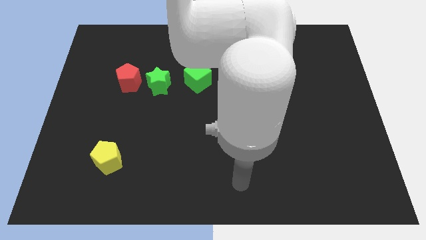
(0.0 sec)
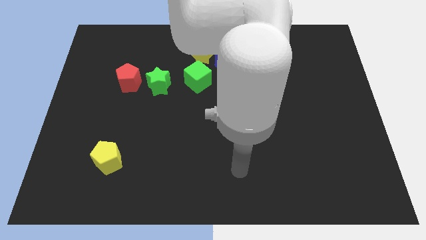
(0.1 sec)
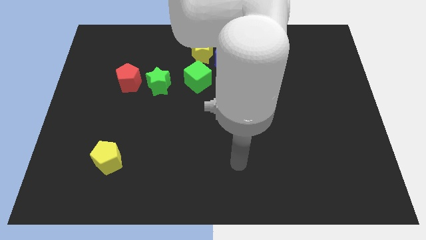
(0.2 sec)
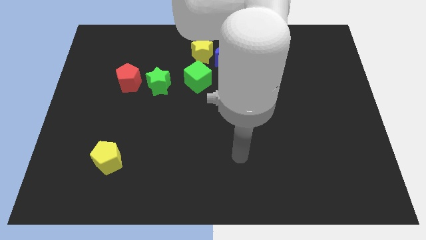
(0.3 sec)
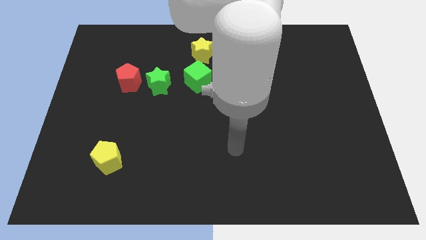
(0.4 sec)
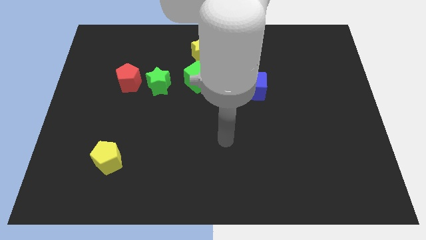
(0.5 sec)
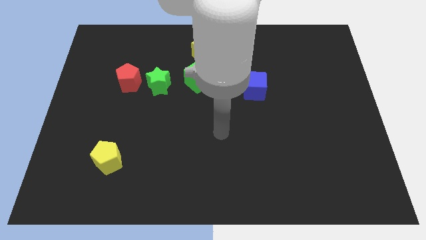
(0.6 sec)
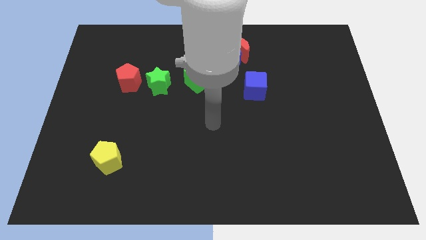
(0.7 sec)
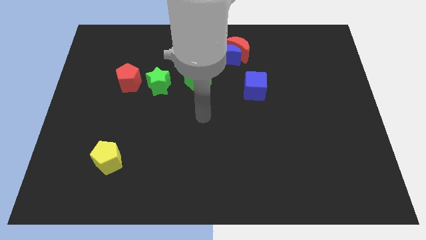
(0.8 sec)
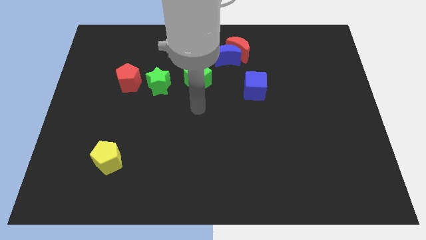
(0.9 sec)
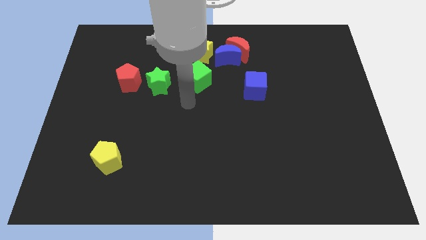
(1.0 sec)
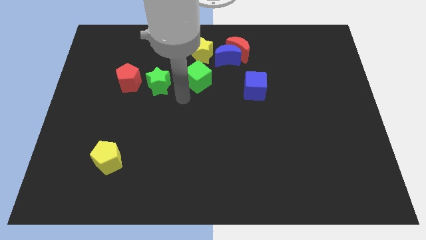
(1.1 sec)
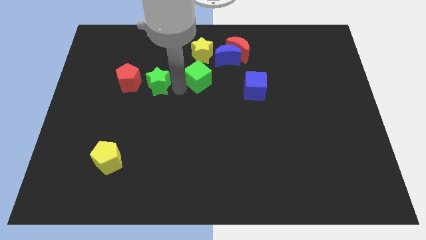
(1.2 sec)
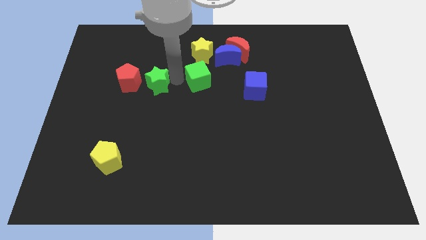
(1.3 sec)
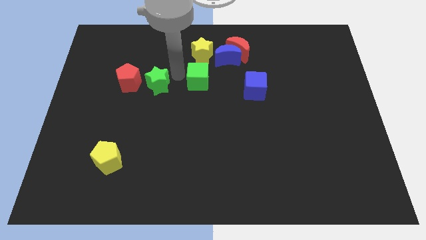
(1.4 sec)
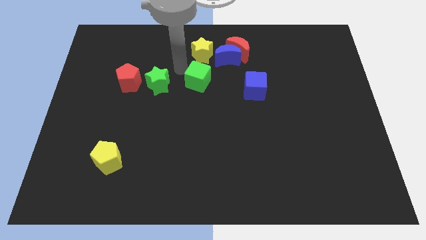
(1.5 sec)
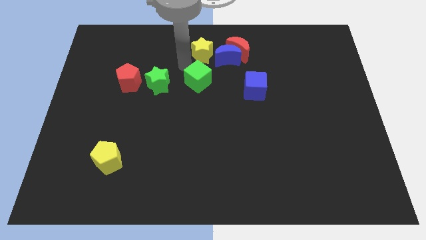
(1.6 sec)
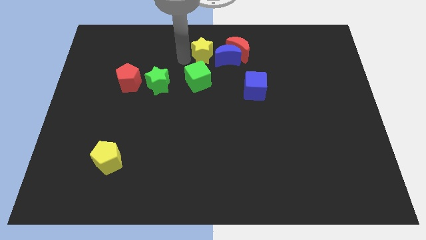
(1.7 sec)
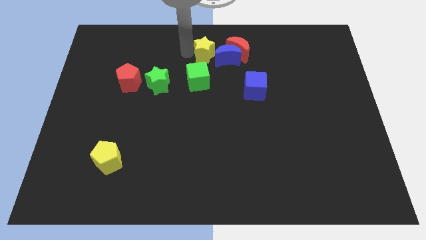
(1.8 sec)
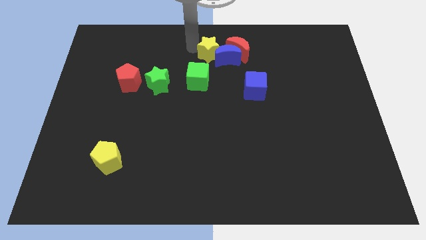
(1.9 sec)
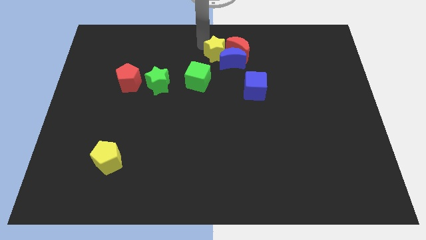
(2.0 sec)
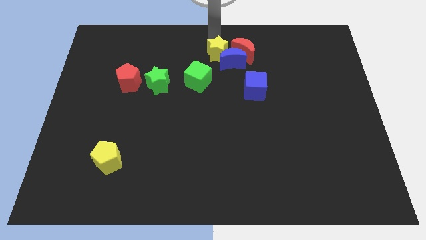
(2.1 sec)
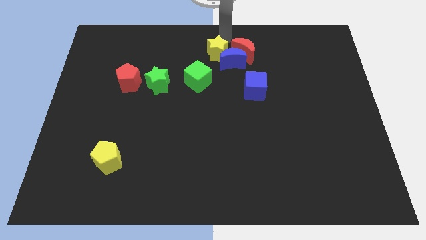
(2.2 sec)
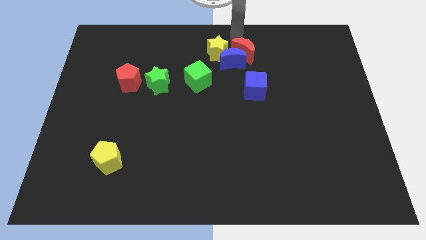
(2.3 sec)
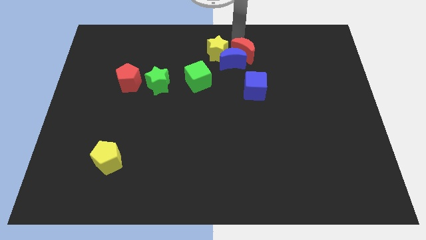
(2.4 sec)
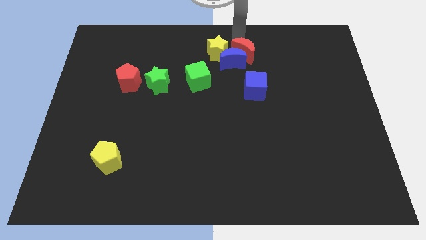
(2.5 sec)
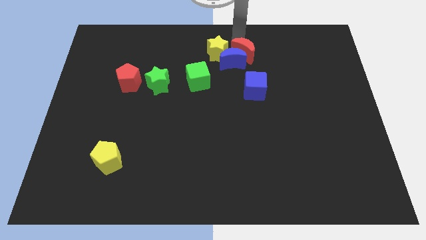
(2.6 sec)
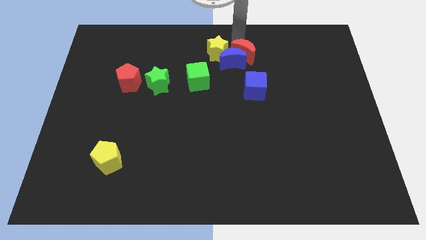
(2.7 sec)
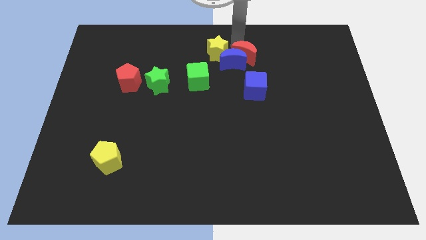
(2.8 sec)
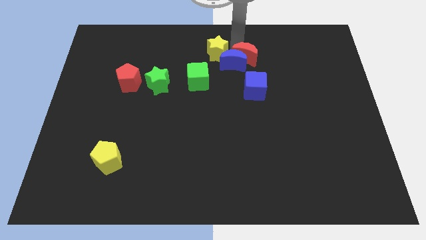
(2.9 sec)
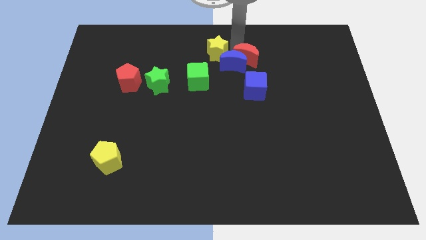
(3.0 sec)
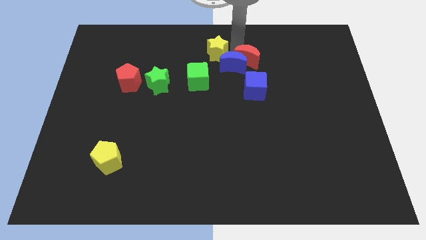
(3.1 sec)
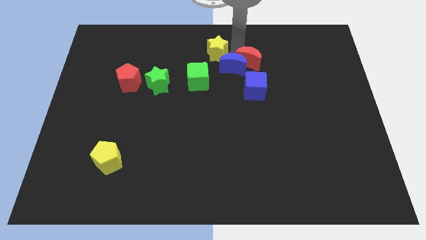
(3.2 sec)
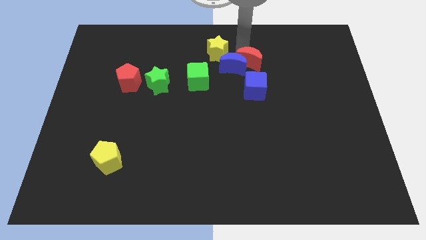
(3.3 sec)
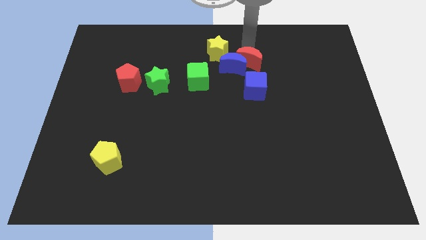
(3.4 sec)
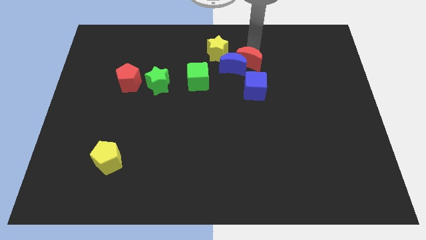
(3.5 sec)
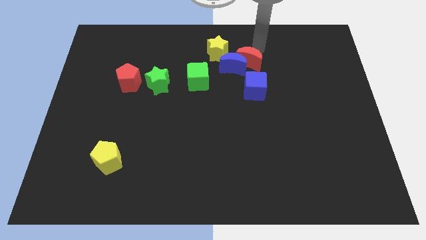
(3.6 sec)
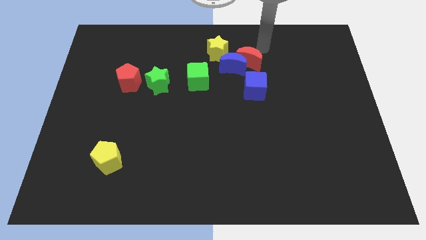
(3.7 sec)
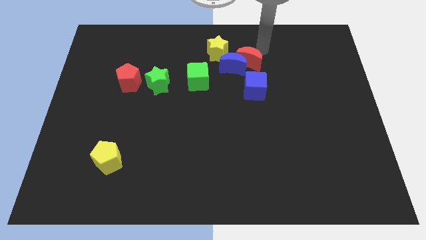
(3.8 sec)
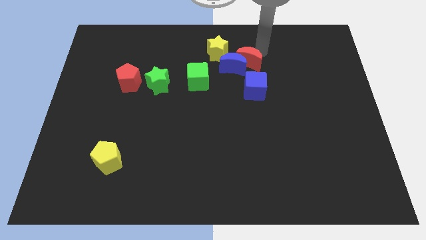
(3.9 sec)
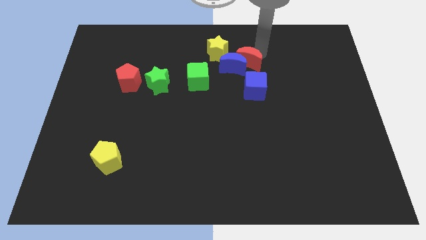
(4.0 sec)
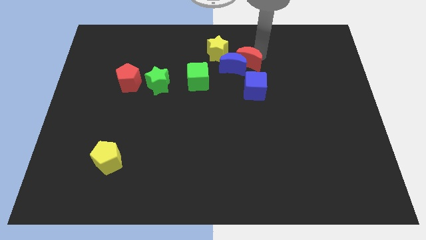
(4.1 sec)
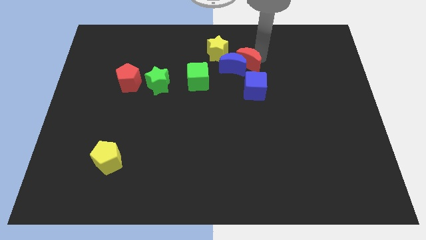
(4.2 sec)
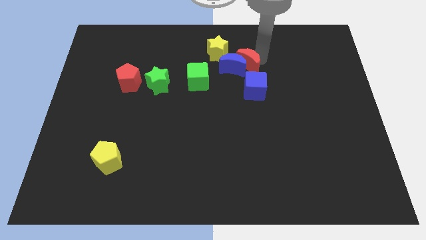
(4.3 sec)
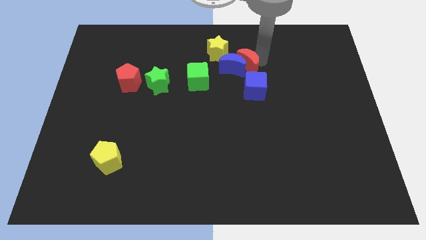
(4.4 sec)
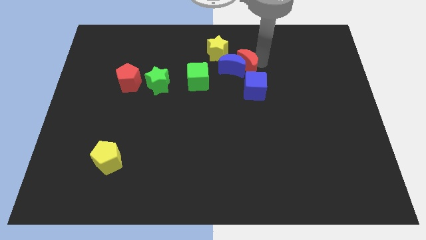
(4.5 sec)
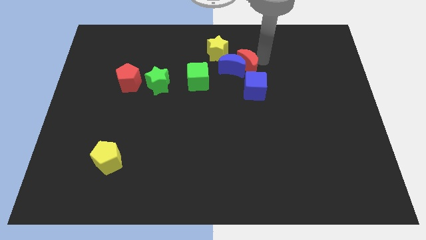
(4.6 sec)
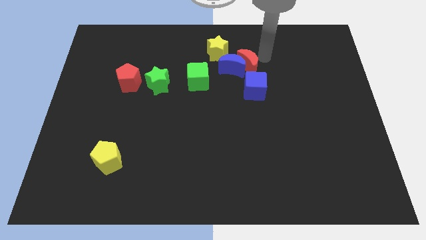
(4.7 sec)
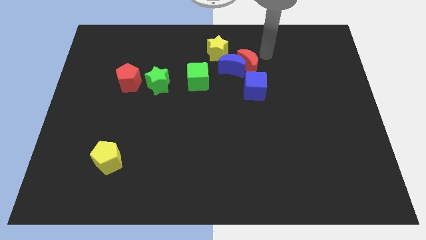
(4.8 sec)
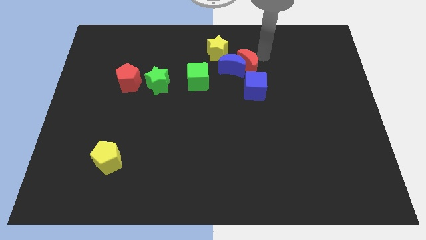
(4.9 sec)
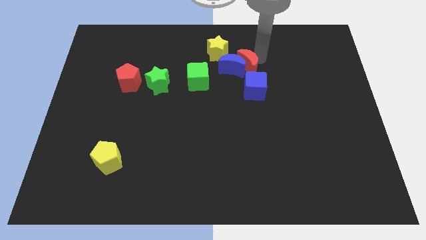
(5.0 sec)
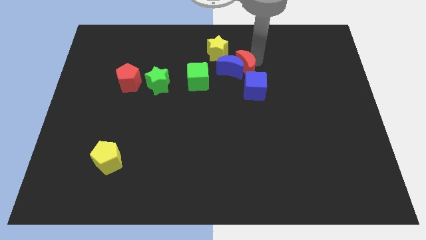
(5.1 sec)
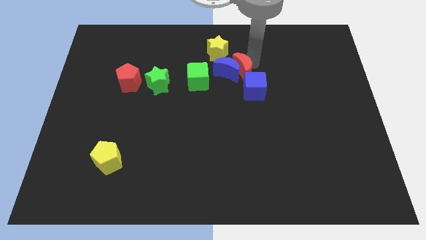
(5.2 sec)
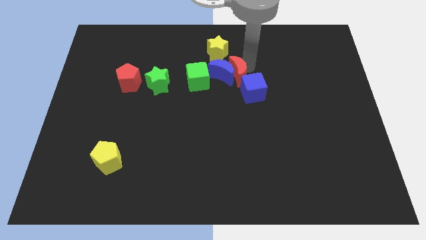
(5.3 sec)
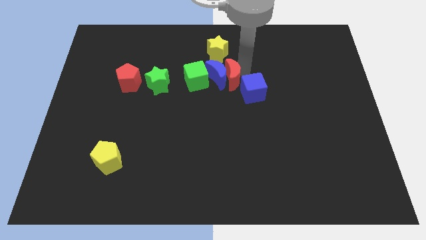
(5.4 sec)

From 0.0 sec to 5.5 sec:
push the red moon downwards and left diagonally slightly

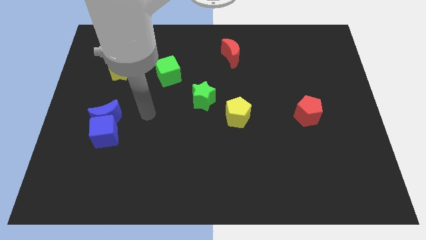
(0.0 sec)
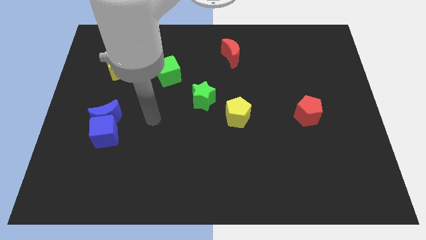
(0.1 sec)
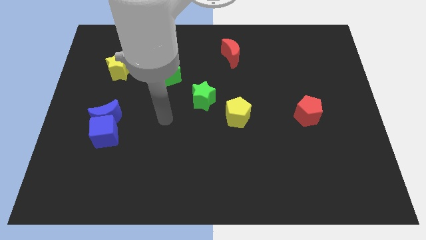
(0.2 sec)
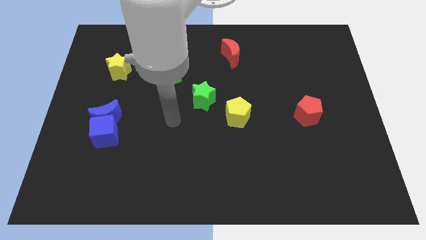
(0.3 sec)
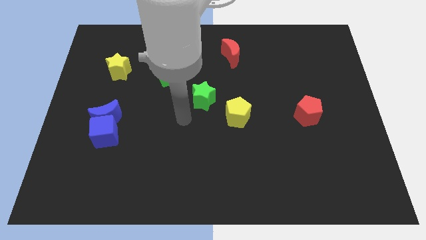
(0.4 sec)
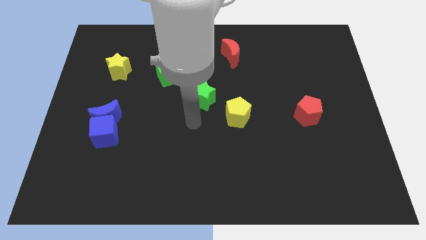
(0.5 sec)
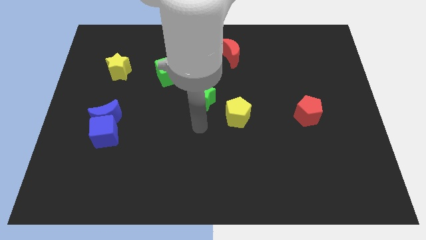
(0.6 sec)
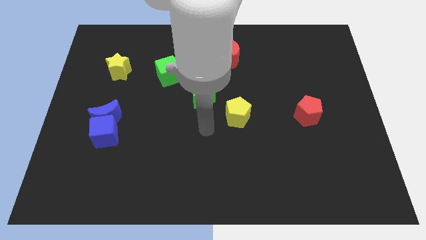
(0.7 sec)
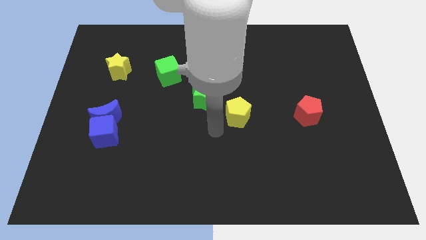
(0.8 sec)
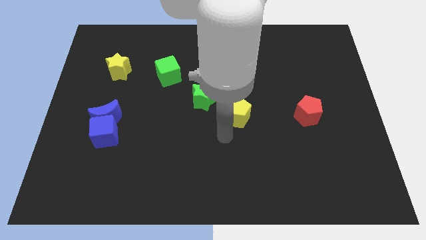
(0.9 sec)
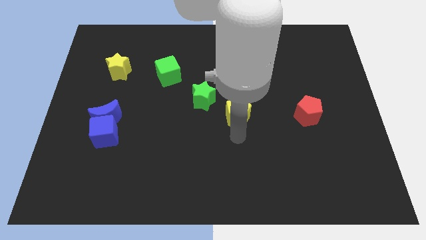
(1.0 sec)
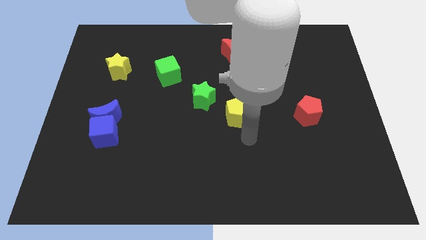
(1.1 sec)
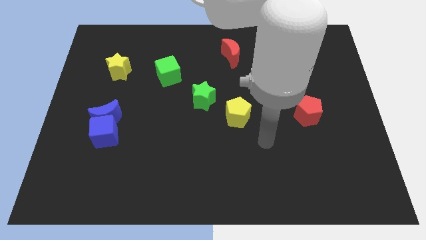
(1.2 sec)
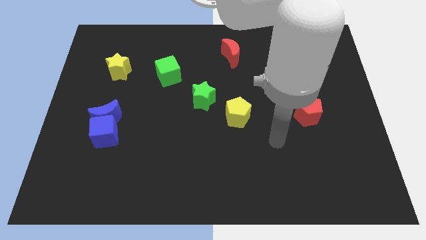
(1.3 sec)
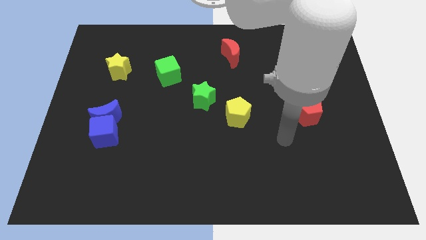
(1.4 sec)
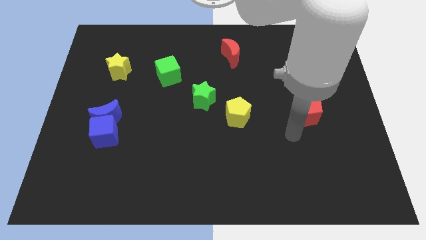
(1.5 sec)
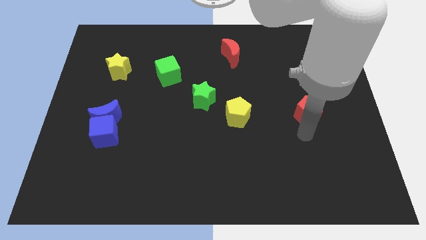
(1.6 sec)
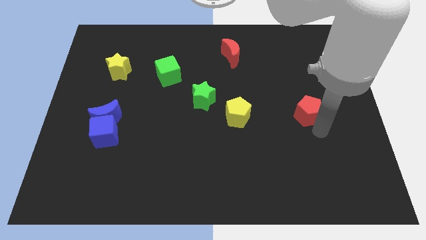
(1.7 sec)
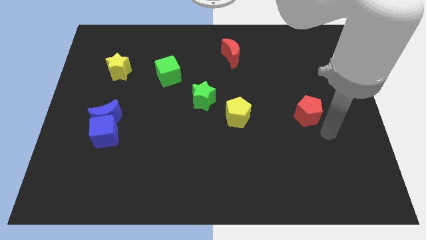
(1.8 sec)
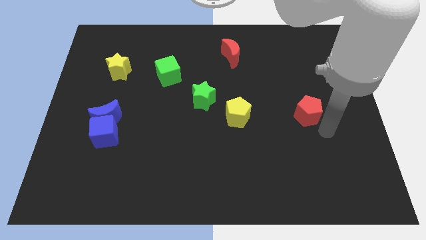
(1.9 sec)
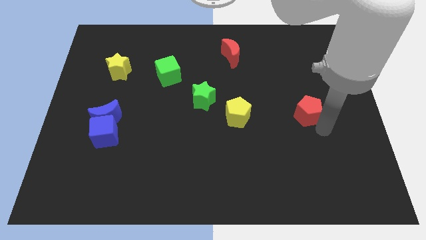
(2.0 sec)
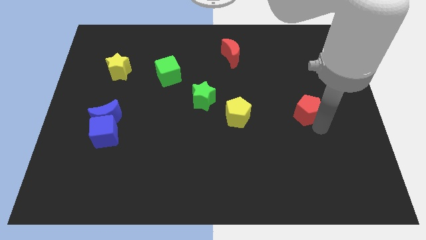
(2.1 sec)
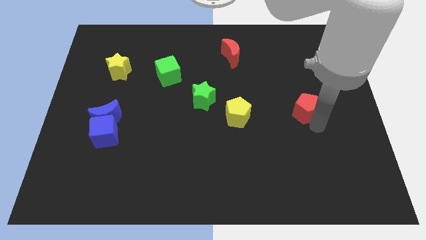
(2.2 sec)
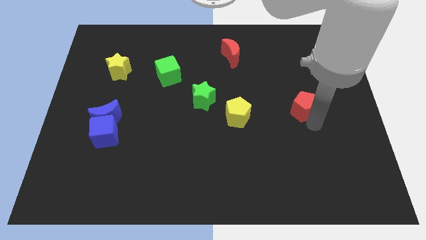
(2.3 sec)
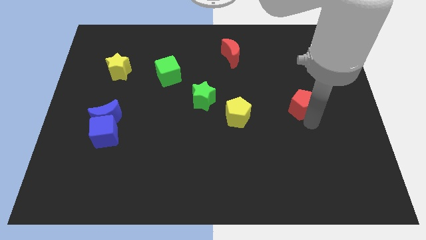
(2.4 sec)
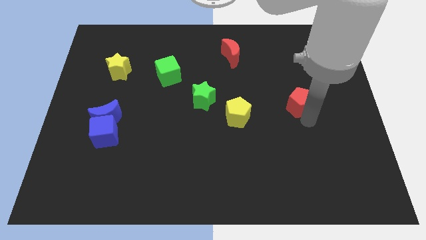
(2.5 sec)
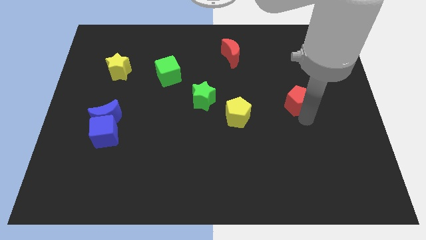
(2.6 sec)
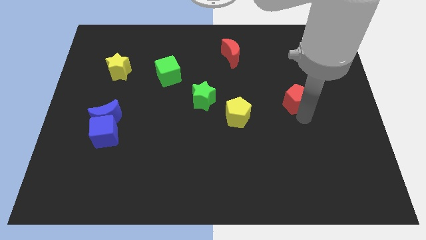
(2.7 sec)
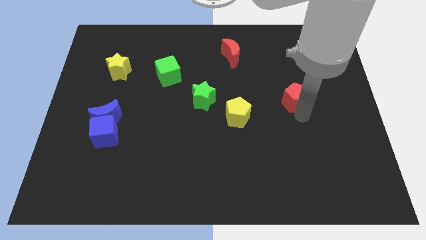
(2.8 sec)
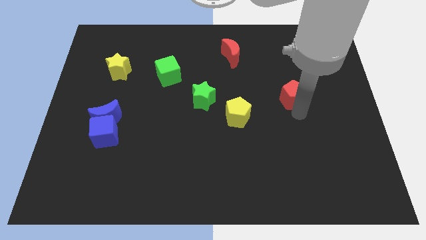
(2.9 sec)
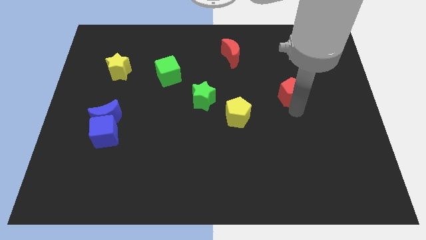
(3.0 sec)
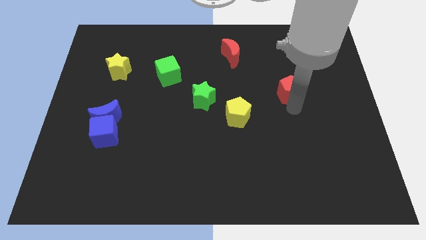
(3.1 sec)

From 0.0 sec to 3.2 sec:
slide the red pentagon a bit up and left diagonally
